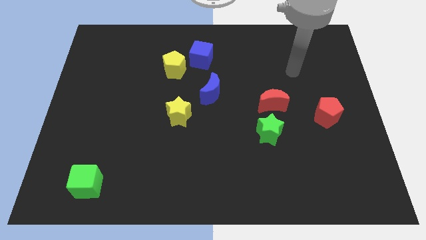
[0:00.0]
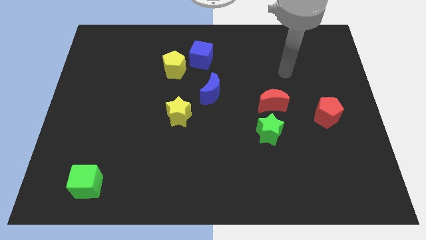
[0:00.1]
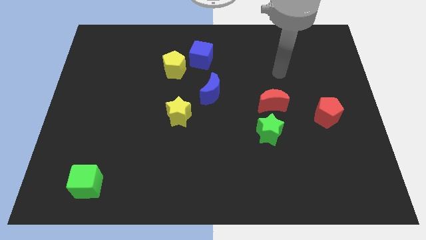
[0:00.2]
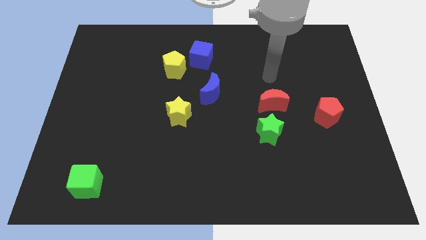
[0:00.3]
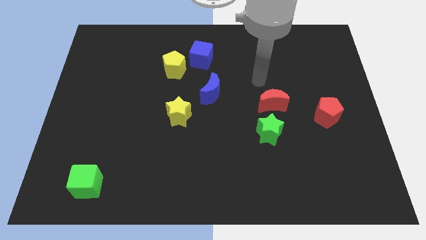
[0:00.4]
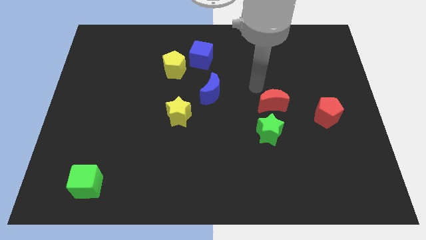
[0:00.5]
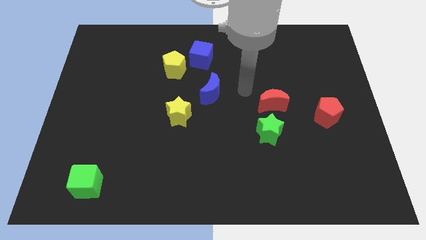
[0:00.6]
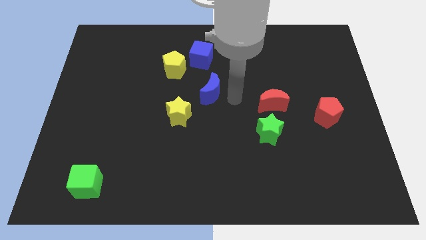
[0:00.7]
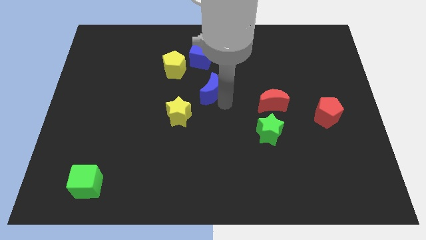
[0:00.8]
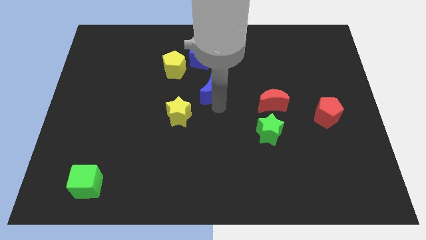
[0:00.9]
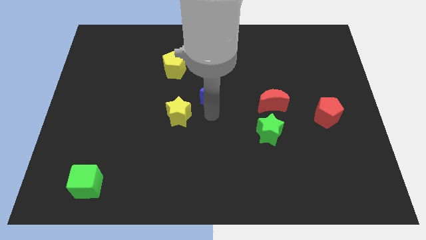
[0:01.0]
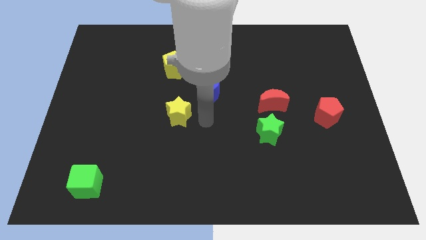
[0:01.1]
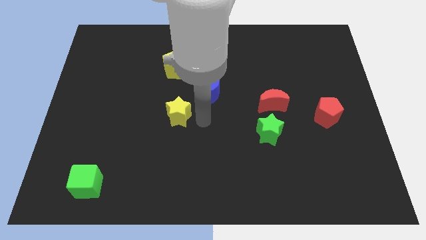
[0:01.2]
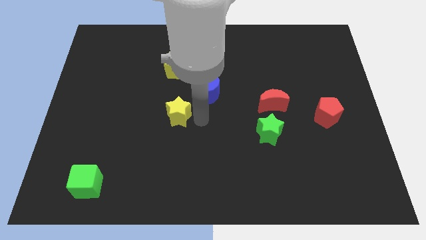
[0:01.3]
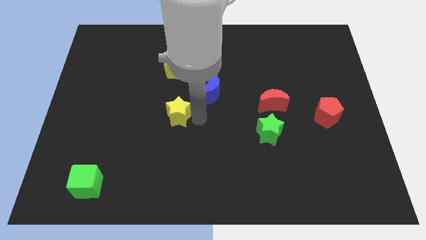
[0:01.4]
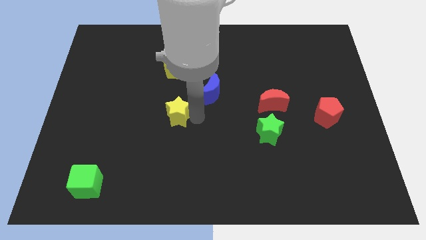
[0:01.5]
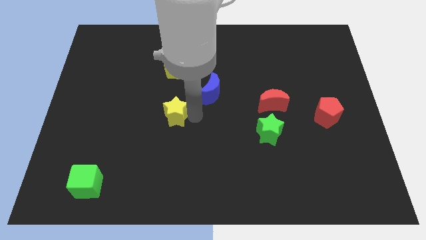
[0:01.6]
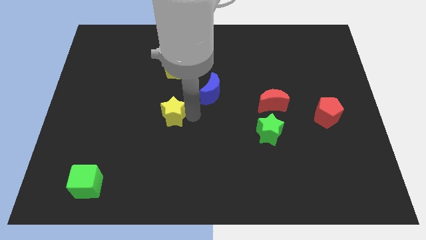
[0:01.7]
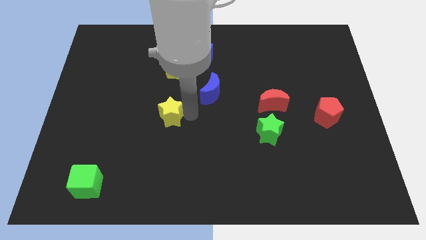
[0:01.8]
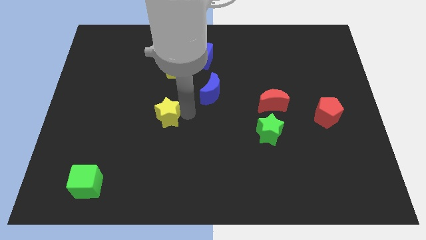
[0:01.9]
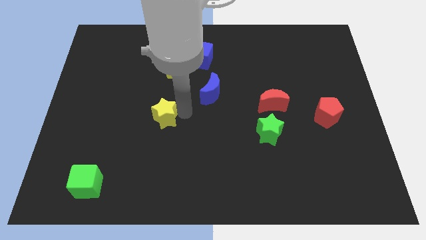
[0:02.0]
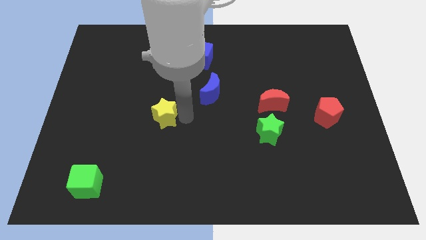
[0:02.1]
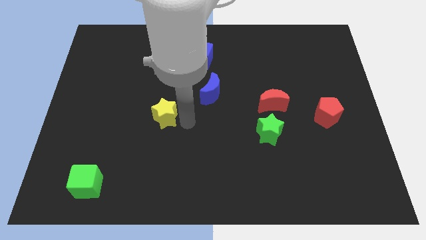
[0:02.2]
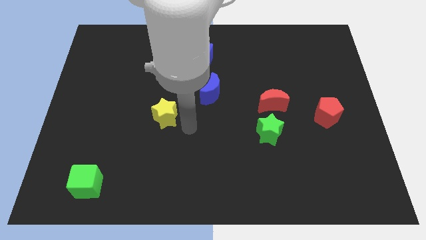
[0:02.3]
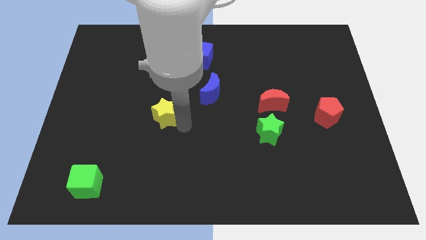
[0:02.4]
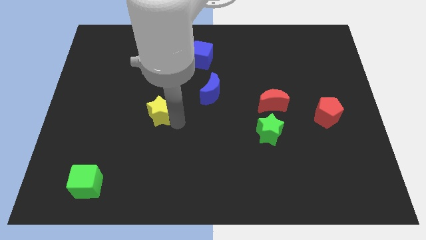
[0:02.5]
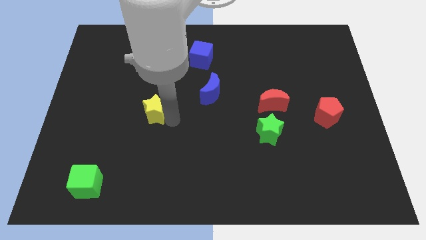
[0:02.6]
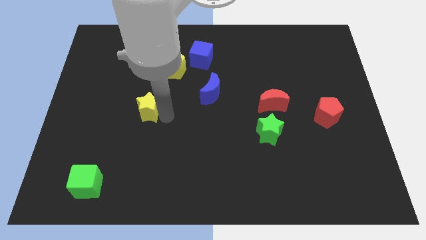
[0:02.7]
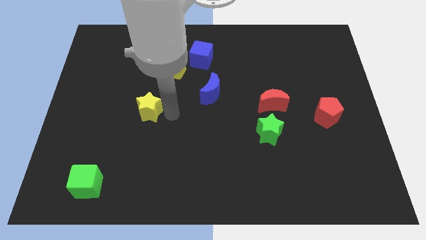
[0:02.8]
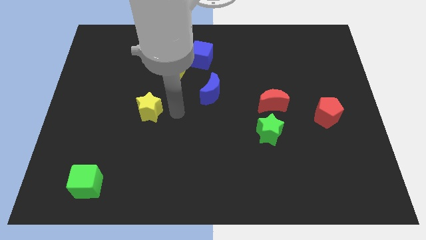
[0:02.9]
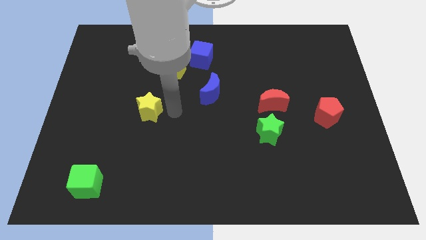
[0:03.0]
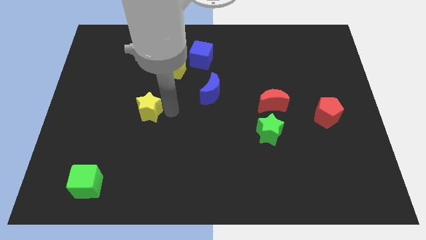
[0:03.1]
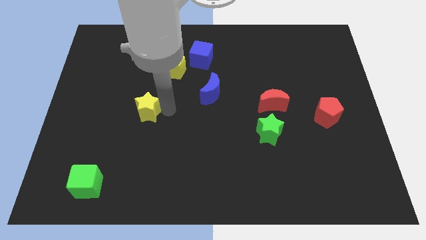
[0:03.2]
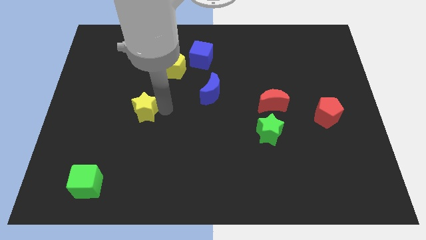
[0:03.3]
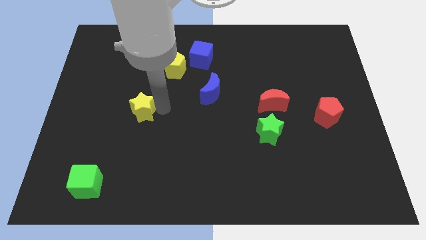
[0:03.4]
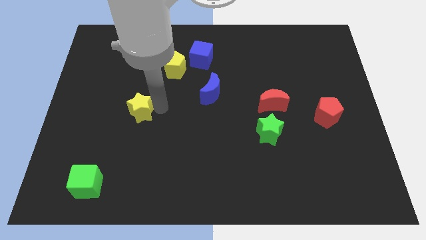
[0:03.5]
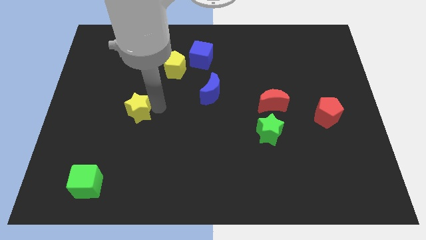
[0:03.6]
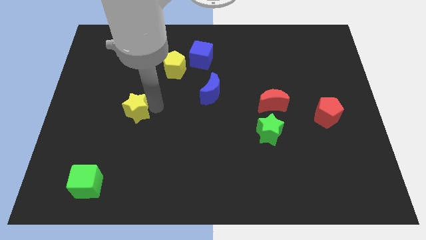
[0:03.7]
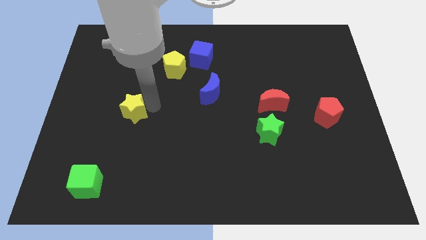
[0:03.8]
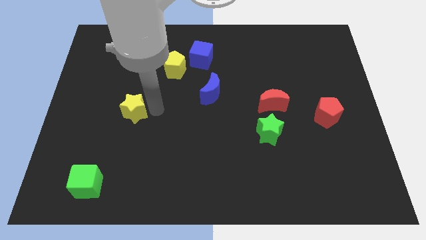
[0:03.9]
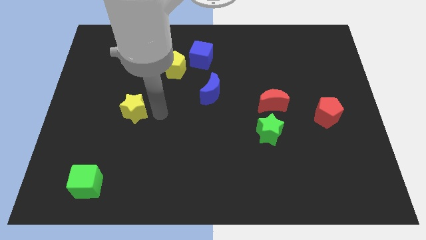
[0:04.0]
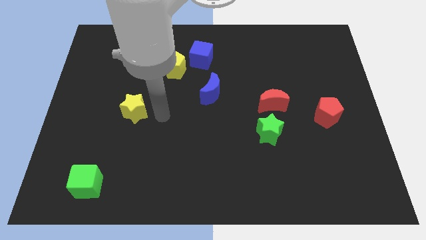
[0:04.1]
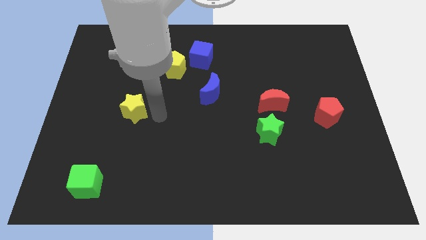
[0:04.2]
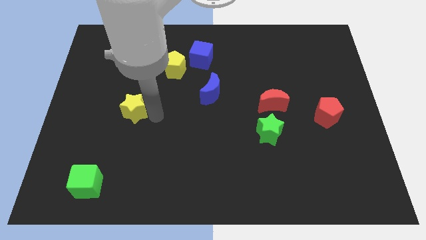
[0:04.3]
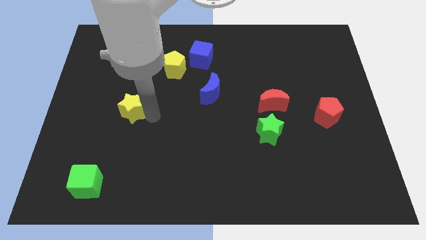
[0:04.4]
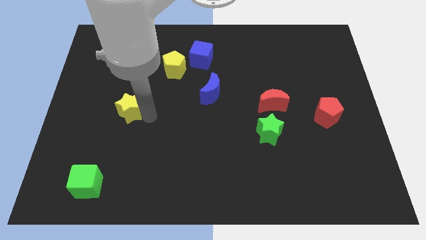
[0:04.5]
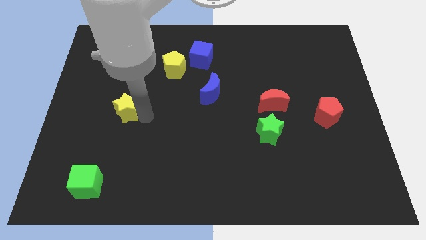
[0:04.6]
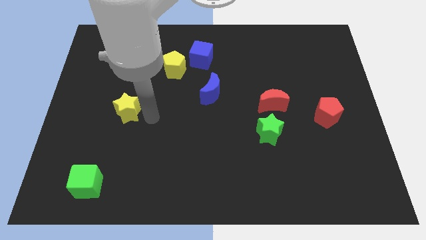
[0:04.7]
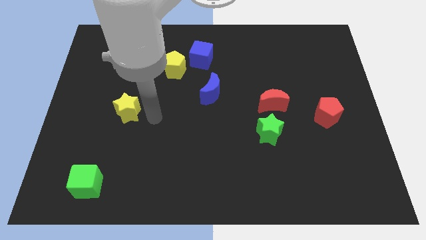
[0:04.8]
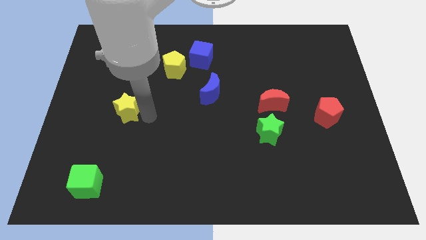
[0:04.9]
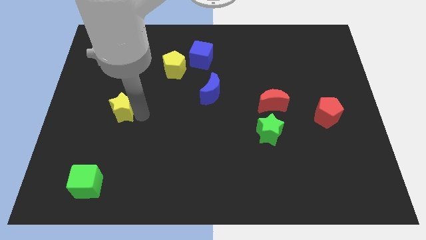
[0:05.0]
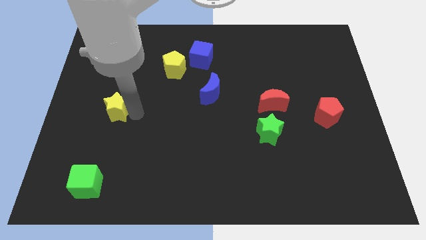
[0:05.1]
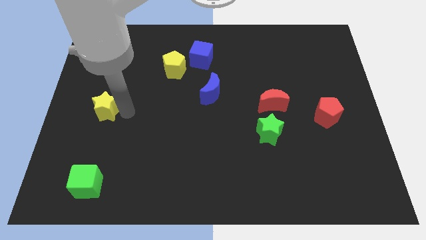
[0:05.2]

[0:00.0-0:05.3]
slide the yellow star to the center left

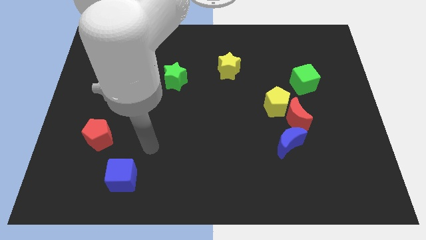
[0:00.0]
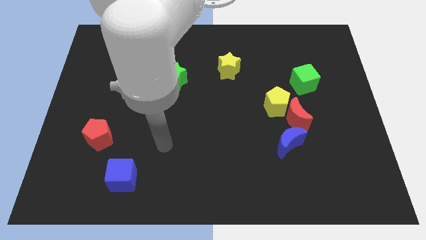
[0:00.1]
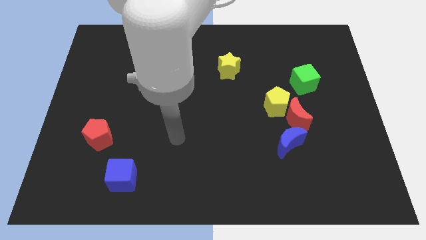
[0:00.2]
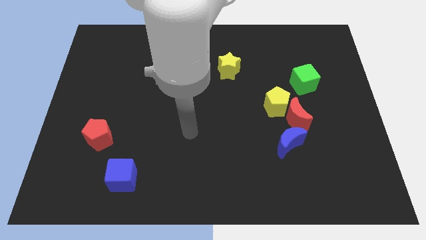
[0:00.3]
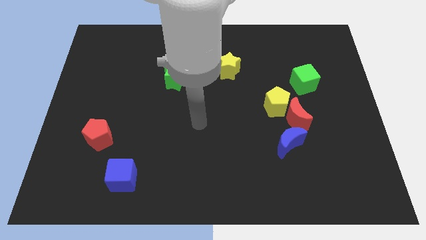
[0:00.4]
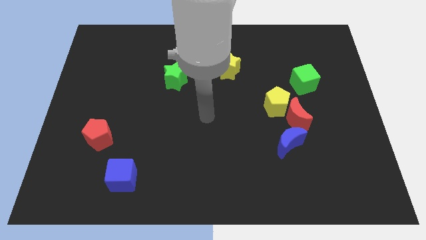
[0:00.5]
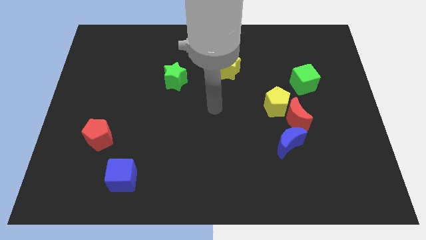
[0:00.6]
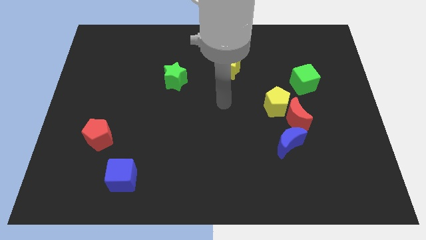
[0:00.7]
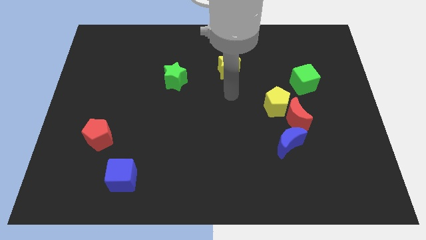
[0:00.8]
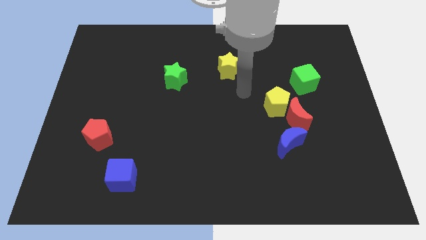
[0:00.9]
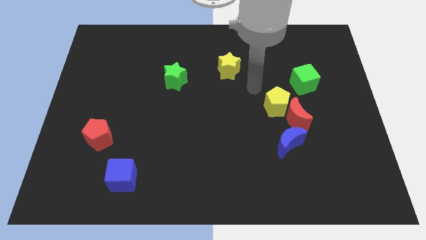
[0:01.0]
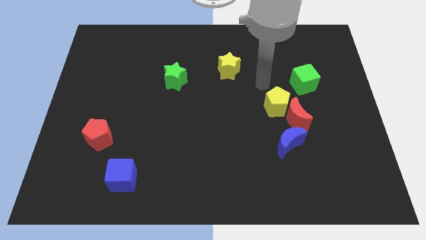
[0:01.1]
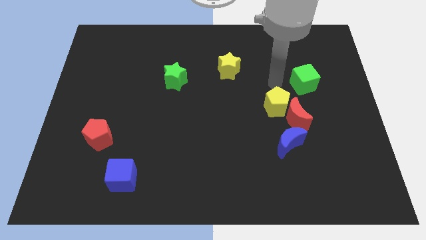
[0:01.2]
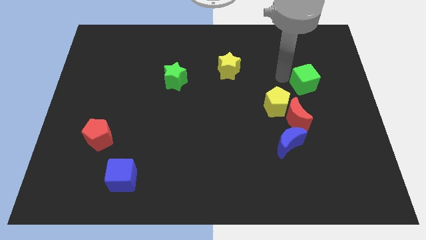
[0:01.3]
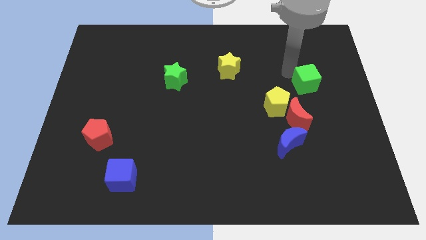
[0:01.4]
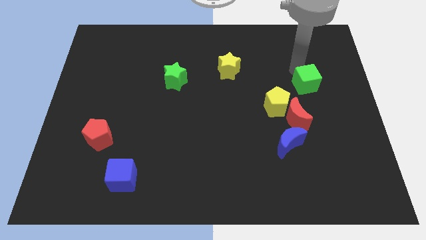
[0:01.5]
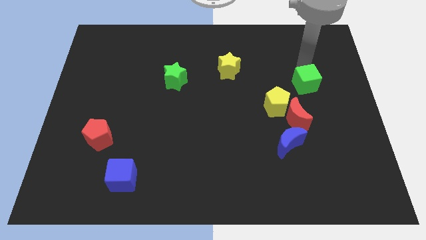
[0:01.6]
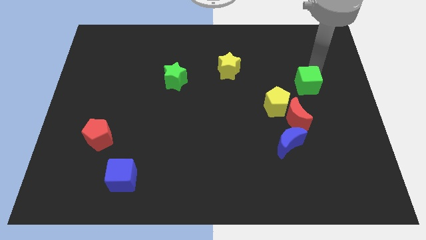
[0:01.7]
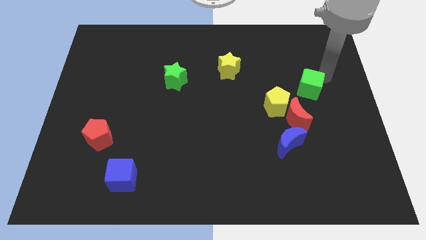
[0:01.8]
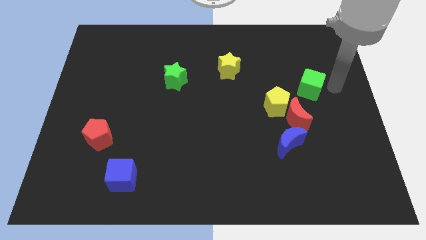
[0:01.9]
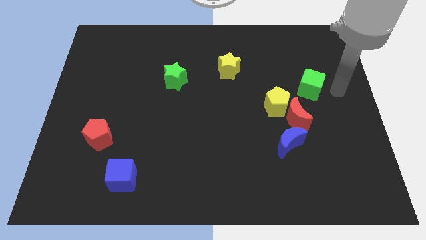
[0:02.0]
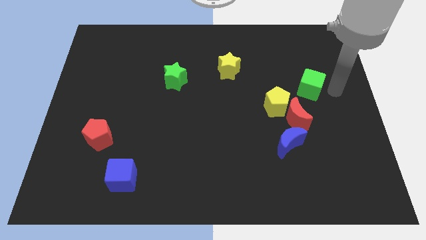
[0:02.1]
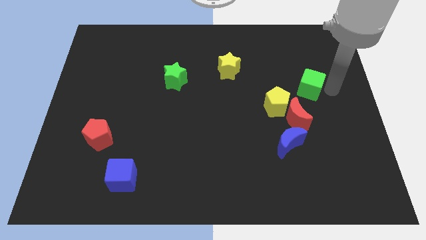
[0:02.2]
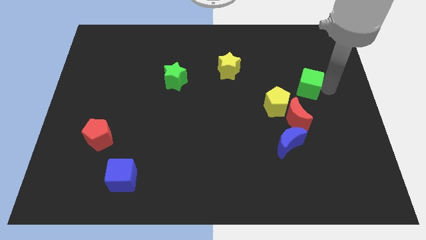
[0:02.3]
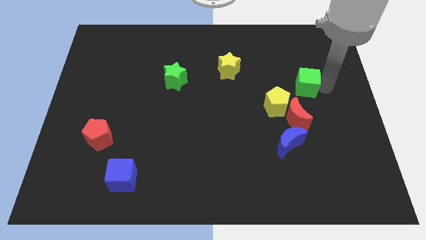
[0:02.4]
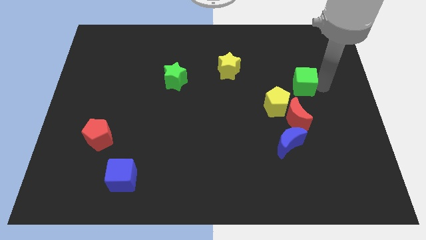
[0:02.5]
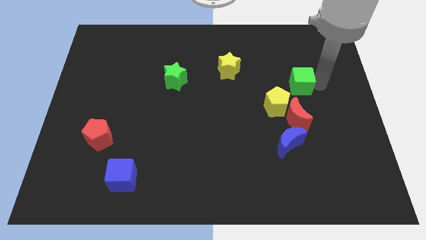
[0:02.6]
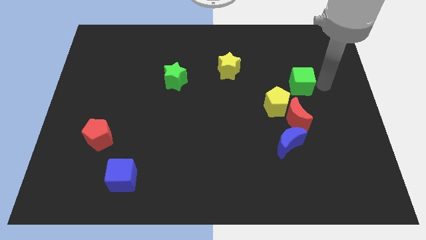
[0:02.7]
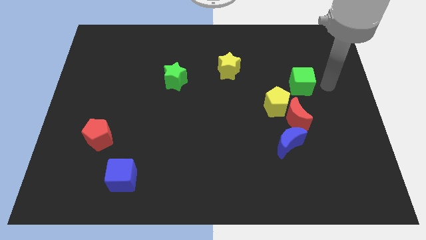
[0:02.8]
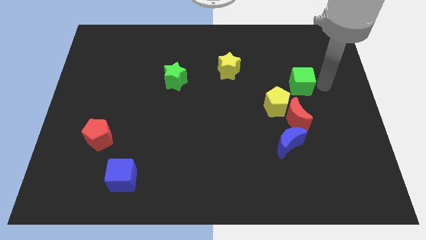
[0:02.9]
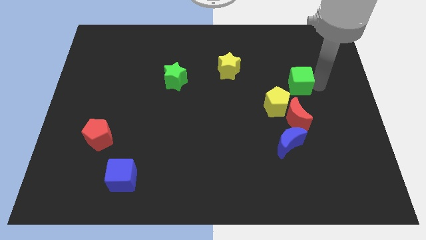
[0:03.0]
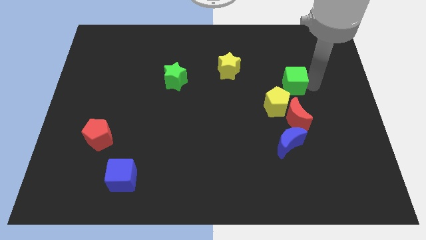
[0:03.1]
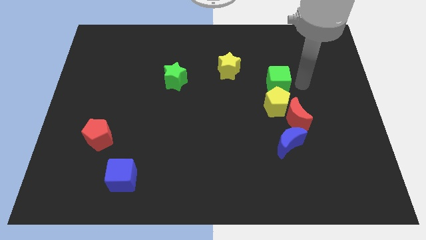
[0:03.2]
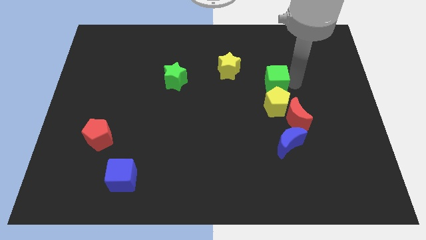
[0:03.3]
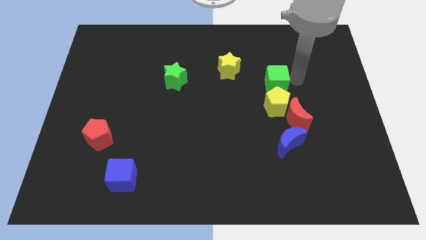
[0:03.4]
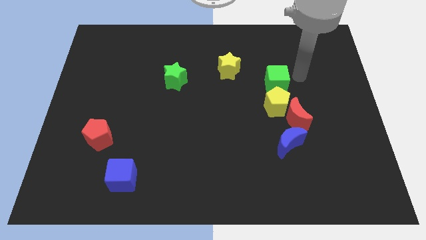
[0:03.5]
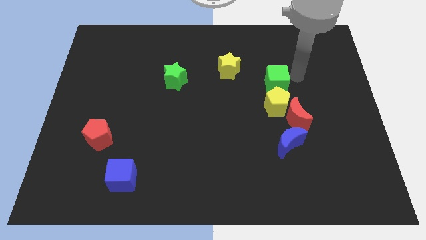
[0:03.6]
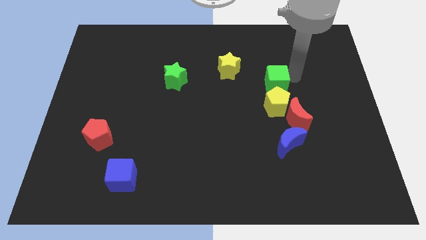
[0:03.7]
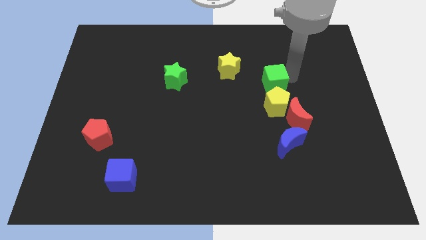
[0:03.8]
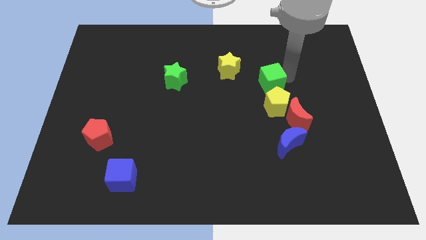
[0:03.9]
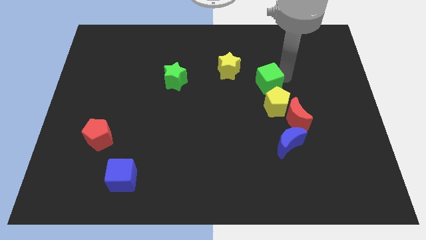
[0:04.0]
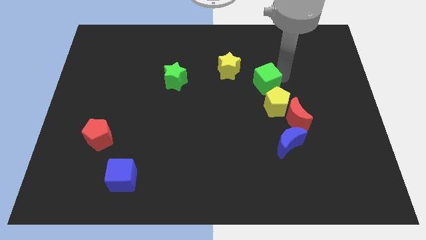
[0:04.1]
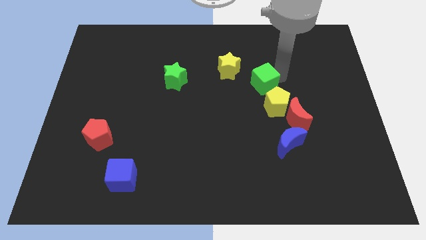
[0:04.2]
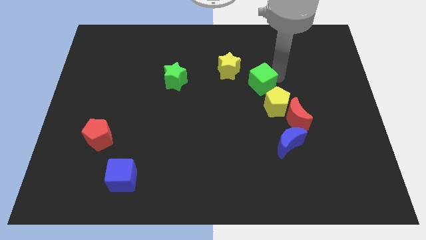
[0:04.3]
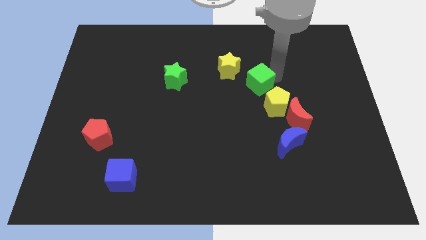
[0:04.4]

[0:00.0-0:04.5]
put the green cube to the center of the board
